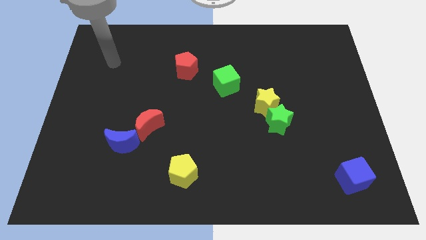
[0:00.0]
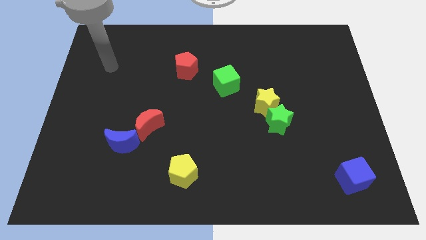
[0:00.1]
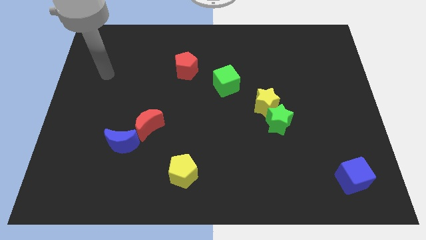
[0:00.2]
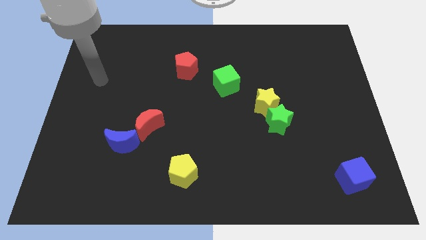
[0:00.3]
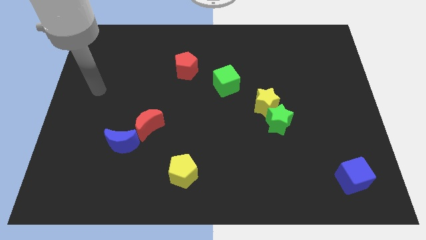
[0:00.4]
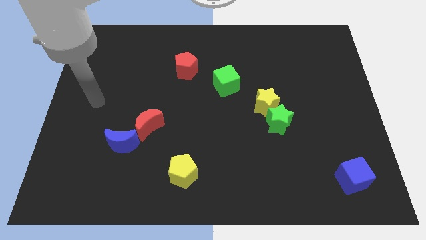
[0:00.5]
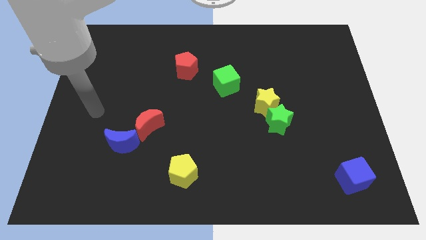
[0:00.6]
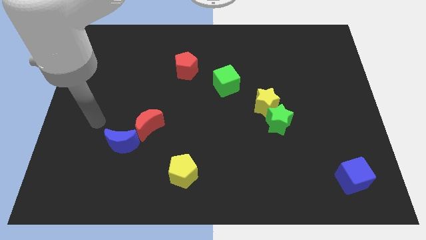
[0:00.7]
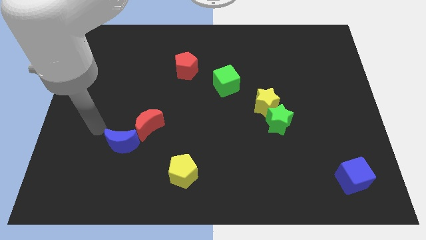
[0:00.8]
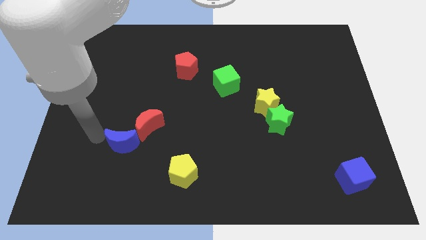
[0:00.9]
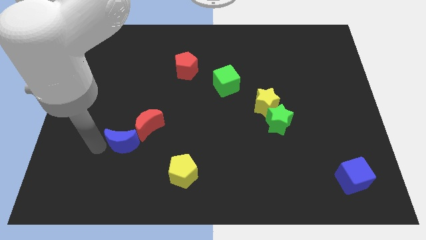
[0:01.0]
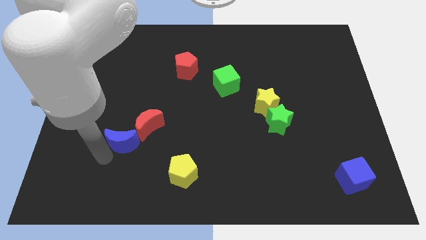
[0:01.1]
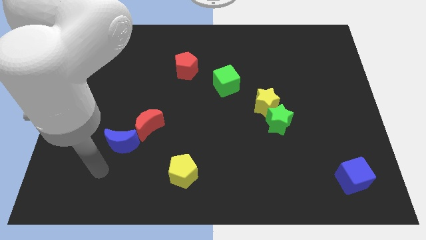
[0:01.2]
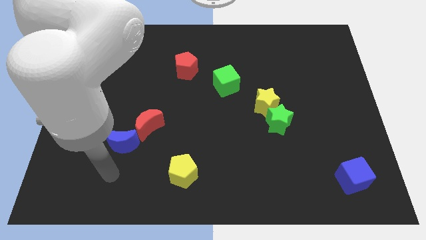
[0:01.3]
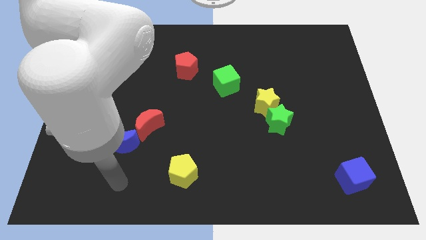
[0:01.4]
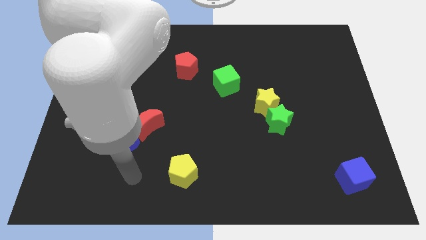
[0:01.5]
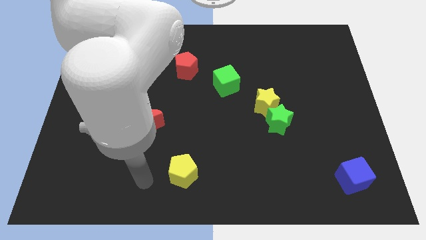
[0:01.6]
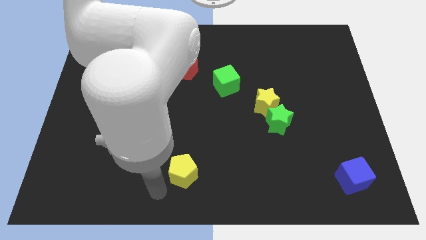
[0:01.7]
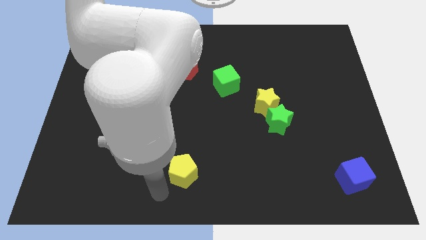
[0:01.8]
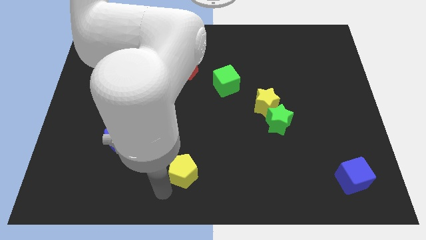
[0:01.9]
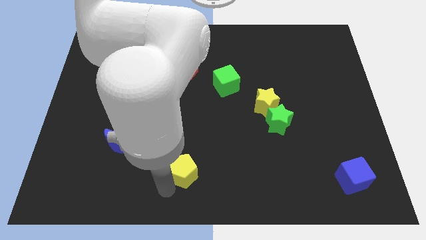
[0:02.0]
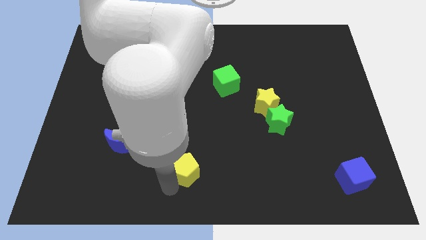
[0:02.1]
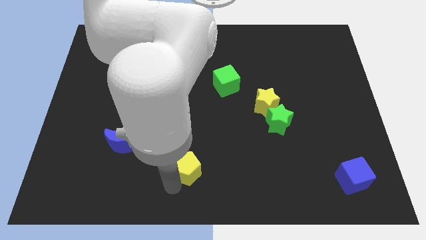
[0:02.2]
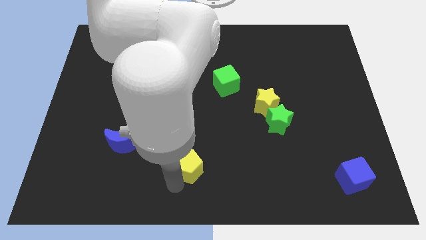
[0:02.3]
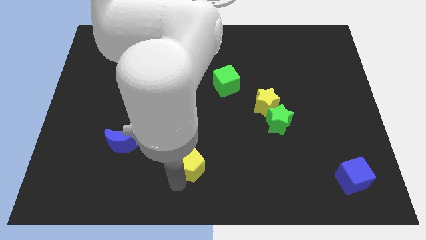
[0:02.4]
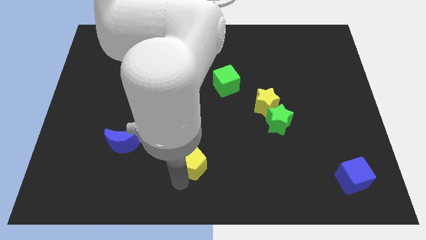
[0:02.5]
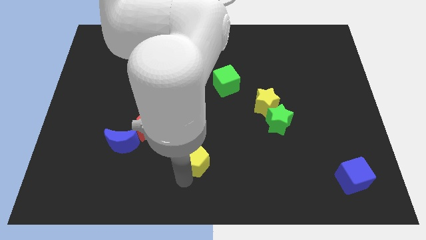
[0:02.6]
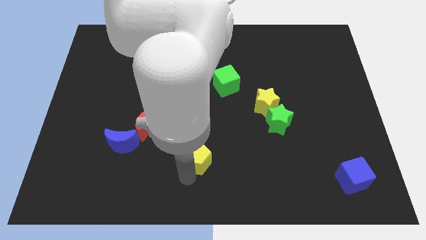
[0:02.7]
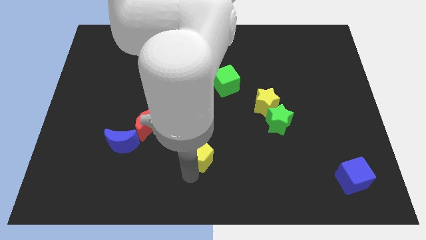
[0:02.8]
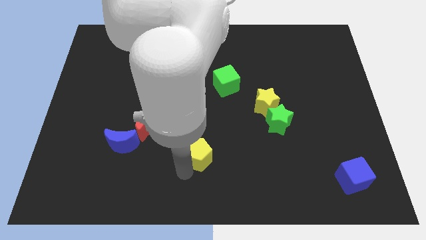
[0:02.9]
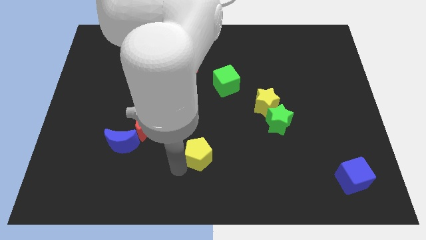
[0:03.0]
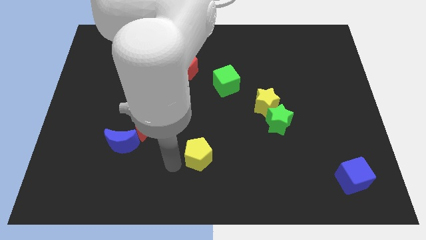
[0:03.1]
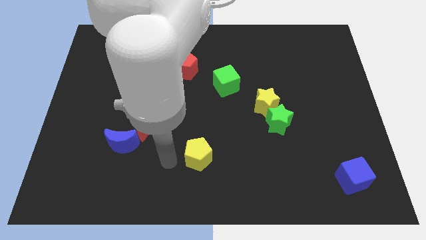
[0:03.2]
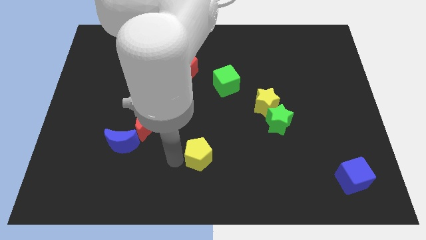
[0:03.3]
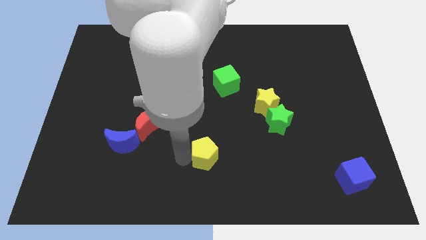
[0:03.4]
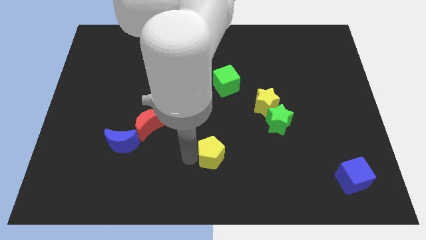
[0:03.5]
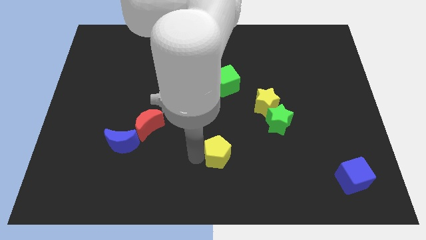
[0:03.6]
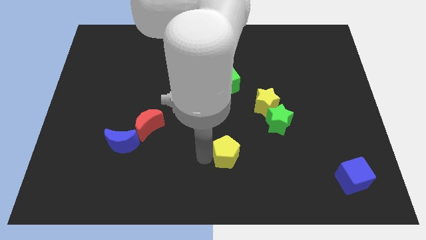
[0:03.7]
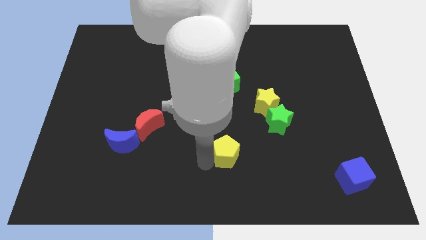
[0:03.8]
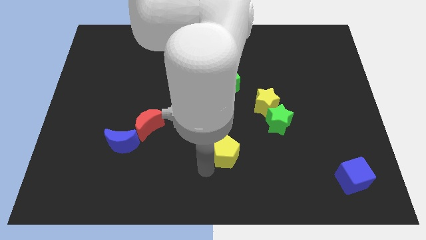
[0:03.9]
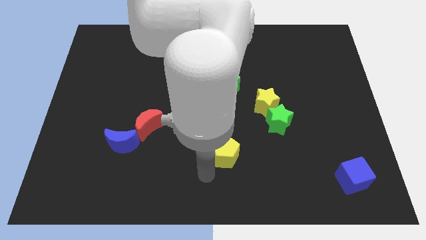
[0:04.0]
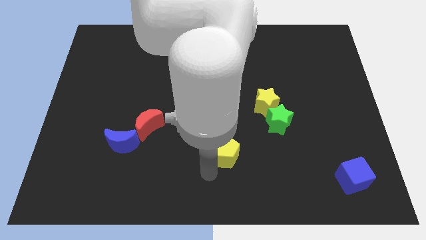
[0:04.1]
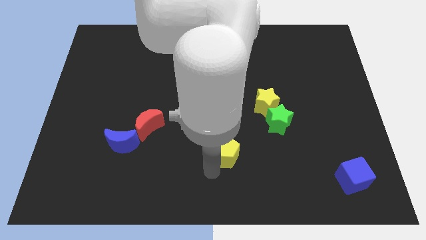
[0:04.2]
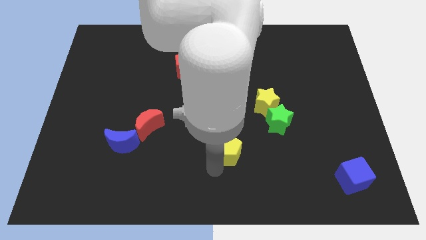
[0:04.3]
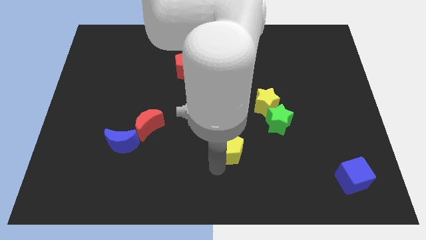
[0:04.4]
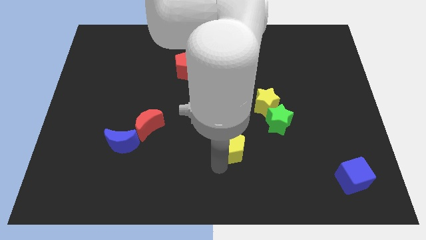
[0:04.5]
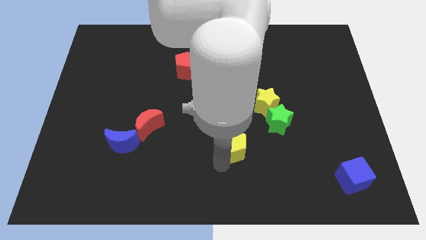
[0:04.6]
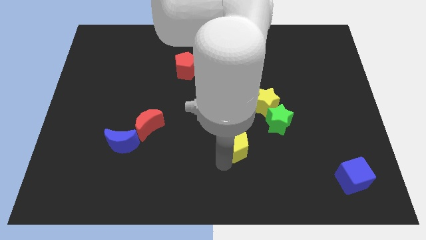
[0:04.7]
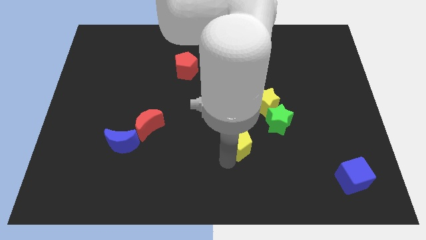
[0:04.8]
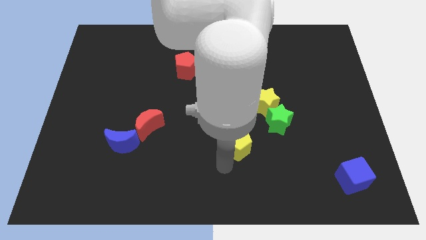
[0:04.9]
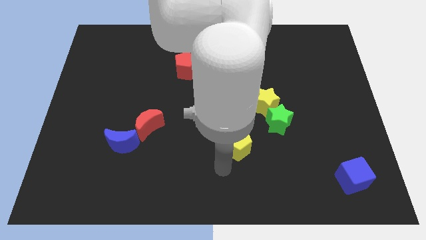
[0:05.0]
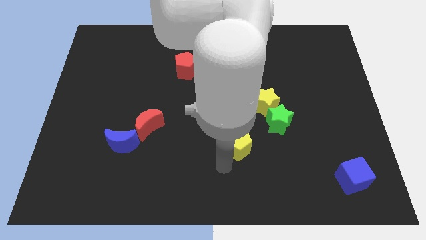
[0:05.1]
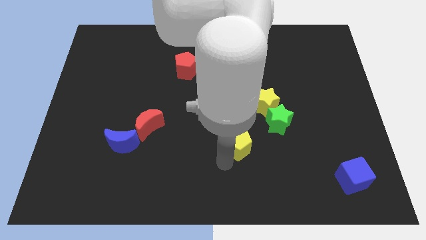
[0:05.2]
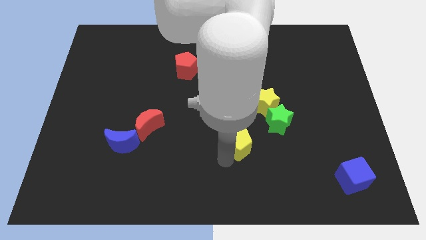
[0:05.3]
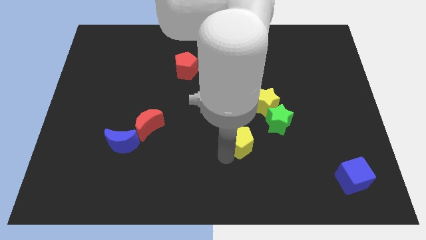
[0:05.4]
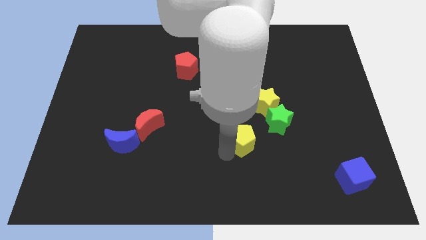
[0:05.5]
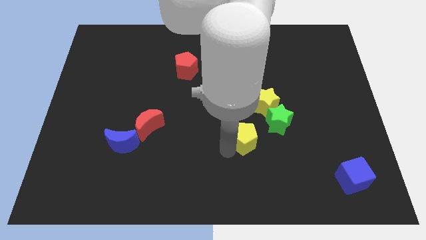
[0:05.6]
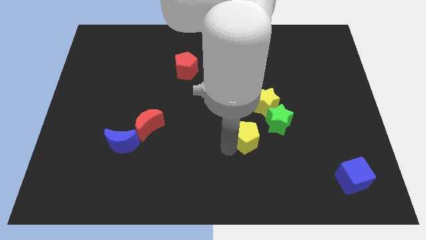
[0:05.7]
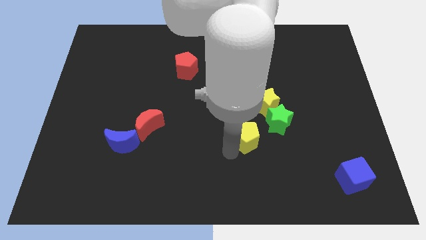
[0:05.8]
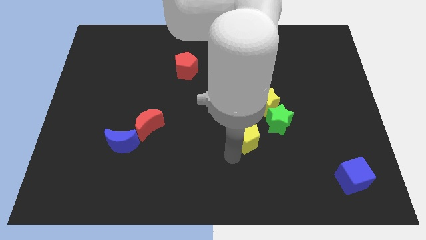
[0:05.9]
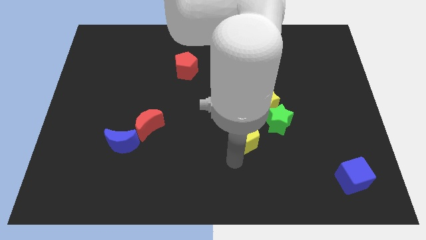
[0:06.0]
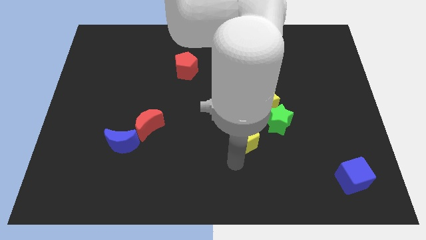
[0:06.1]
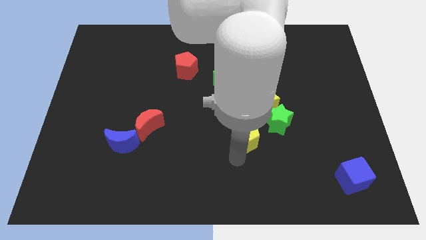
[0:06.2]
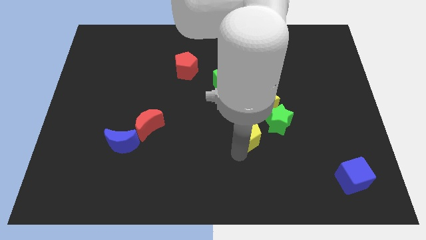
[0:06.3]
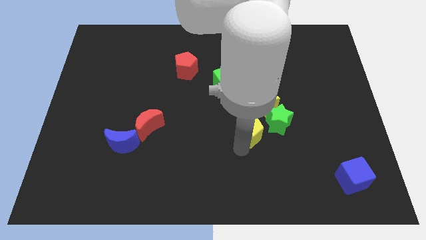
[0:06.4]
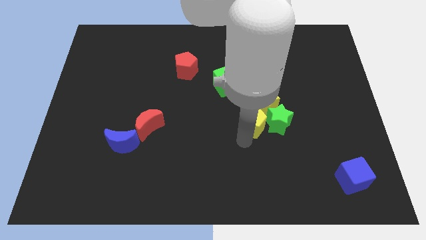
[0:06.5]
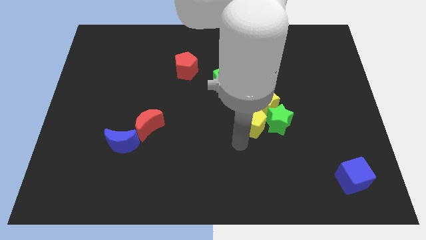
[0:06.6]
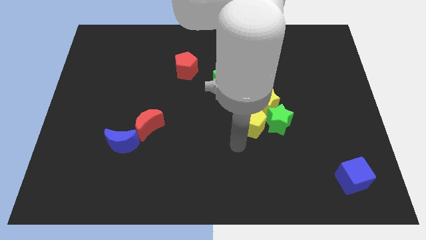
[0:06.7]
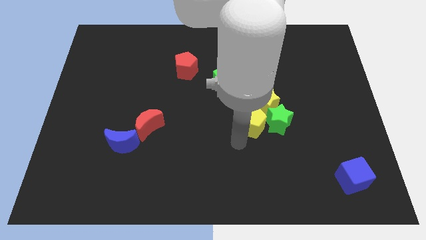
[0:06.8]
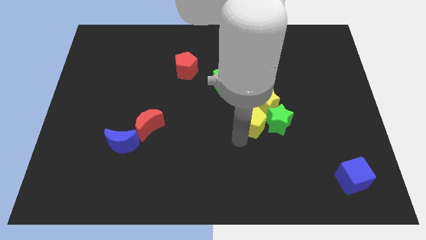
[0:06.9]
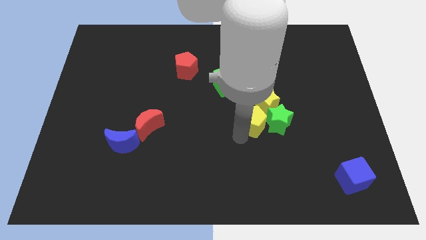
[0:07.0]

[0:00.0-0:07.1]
move the yellow pentagon towards the yellow star

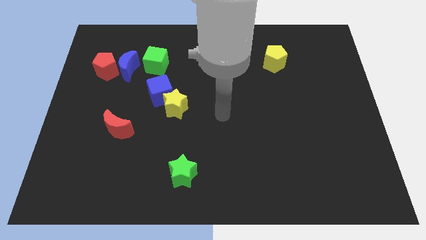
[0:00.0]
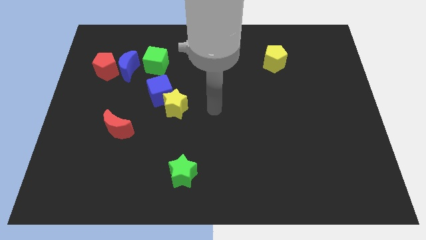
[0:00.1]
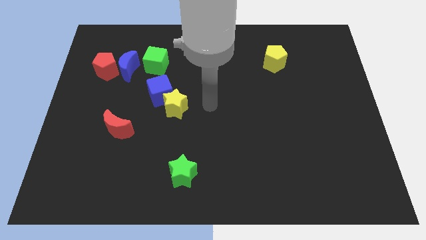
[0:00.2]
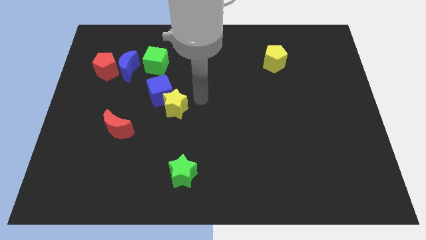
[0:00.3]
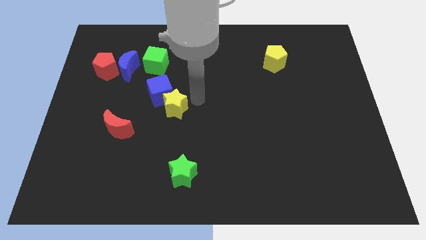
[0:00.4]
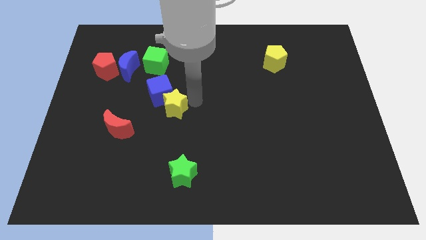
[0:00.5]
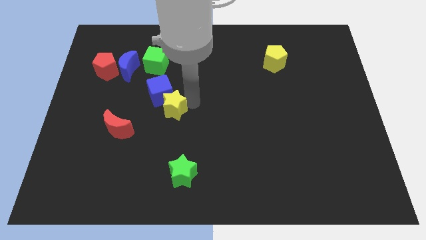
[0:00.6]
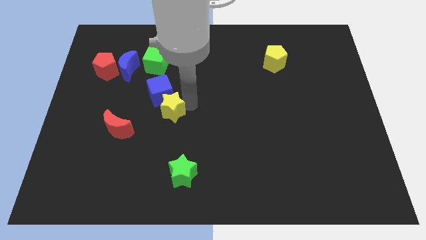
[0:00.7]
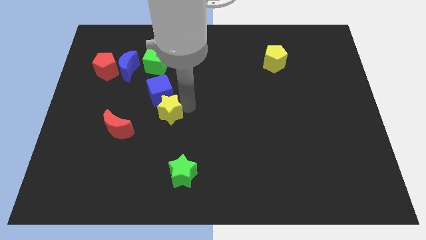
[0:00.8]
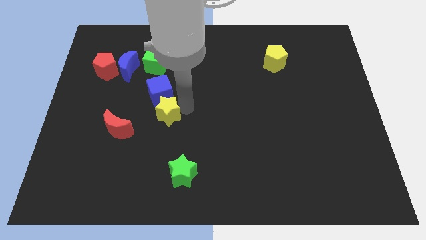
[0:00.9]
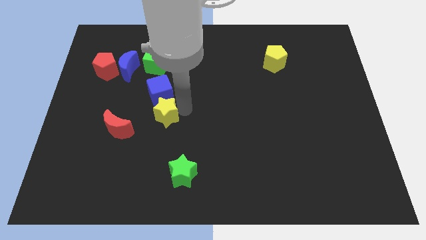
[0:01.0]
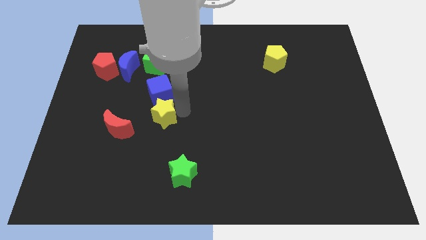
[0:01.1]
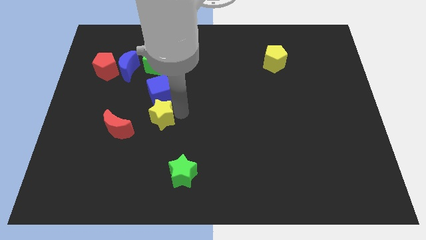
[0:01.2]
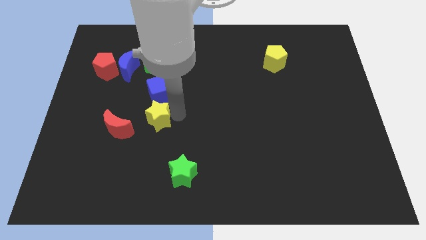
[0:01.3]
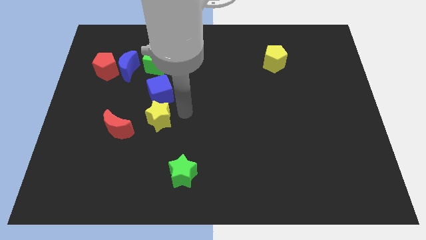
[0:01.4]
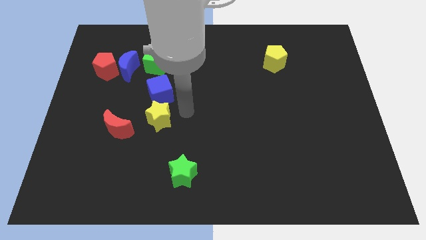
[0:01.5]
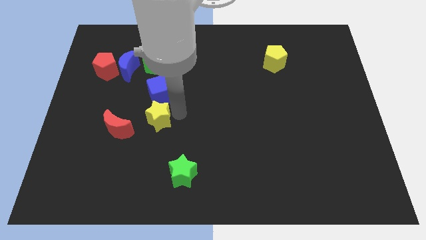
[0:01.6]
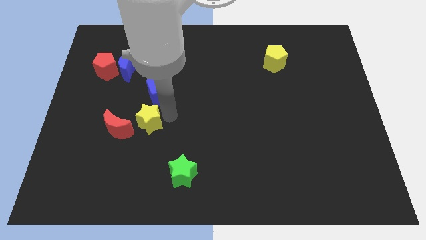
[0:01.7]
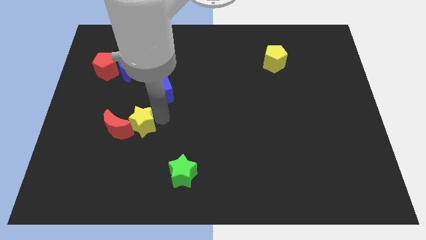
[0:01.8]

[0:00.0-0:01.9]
slide the yellow star towards the red moon
